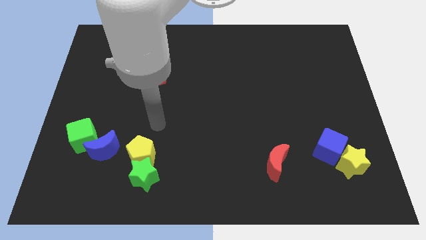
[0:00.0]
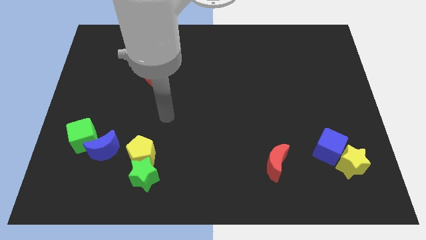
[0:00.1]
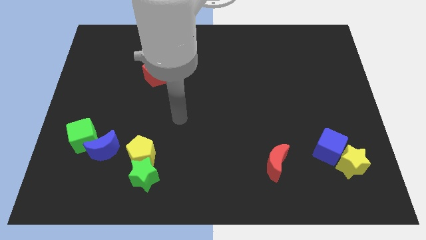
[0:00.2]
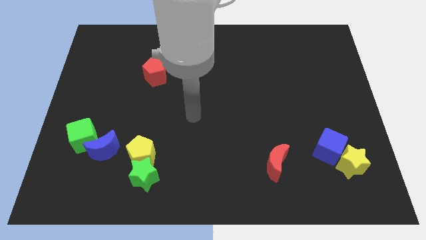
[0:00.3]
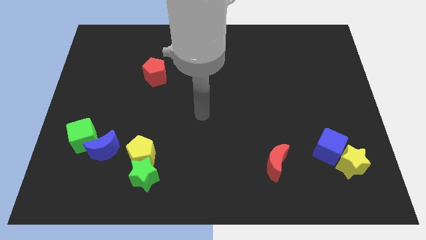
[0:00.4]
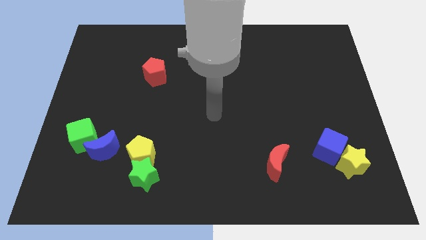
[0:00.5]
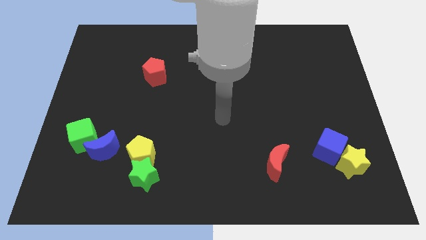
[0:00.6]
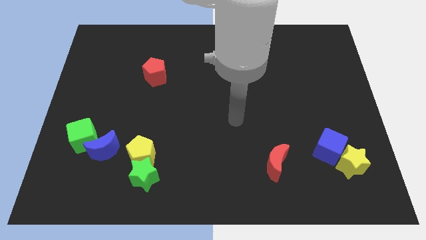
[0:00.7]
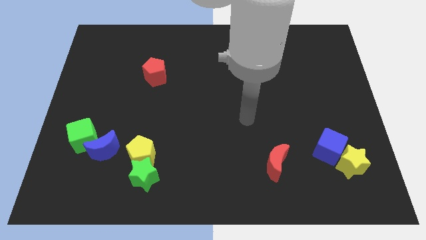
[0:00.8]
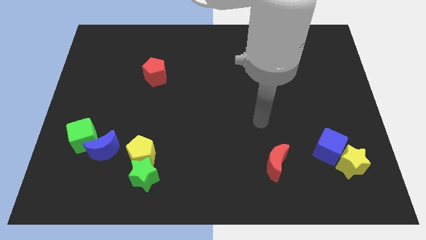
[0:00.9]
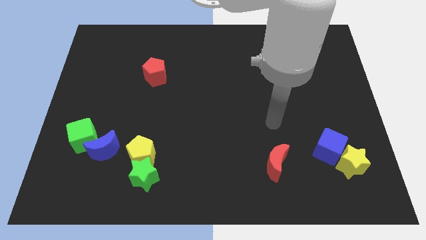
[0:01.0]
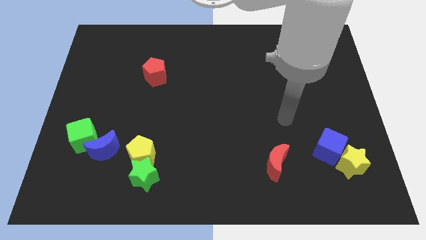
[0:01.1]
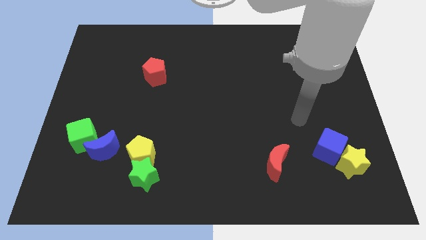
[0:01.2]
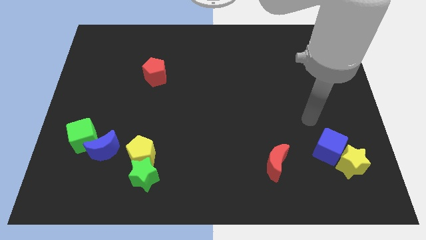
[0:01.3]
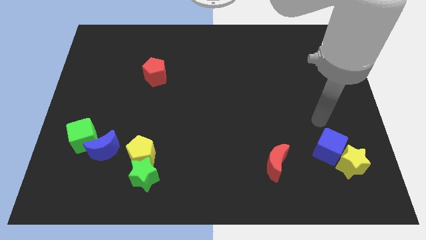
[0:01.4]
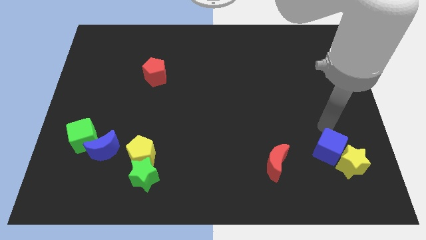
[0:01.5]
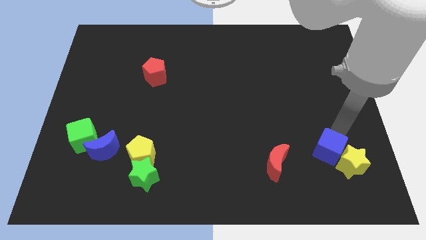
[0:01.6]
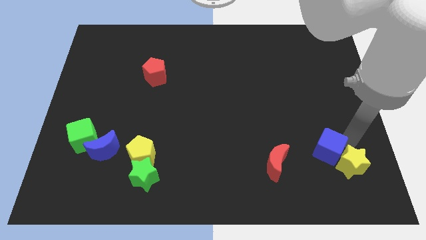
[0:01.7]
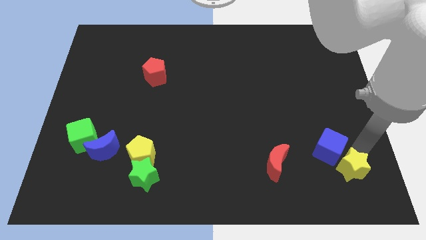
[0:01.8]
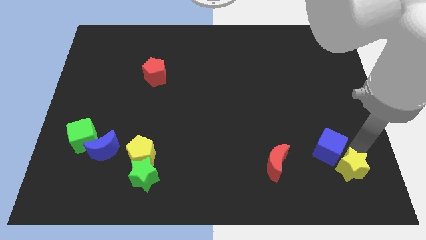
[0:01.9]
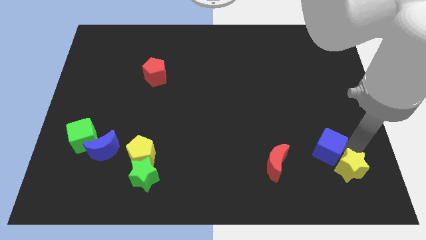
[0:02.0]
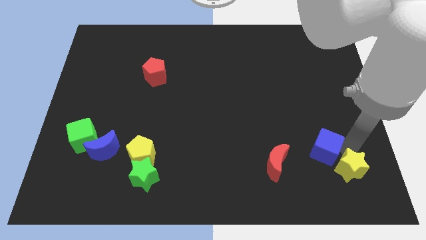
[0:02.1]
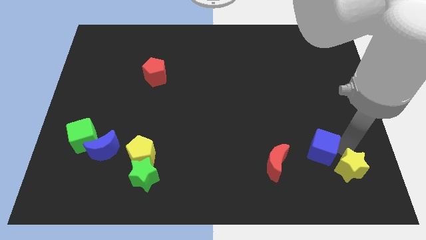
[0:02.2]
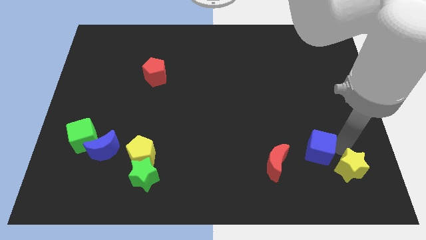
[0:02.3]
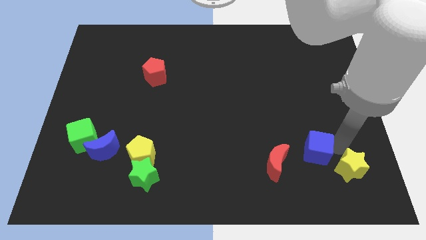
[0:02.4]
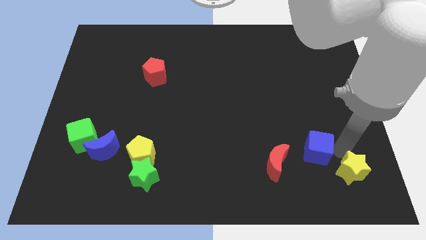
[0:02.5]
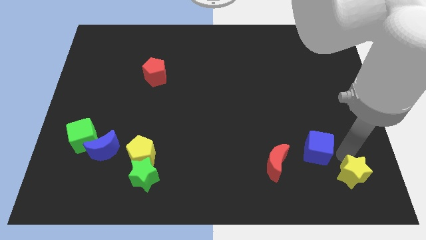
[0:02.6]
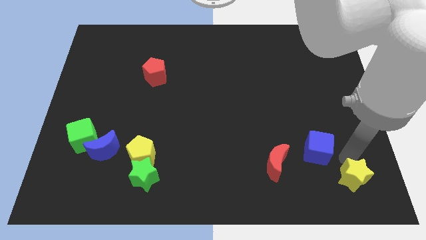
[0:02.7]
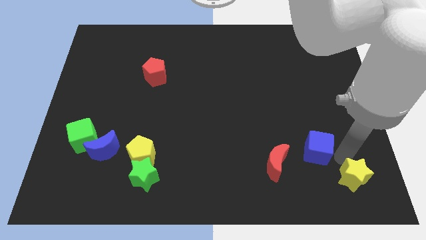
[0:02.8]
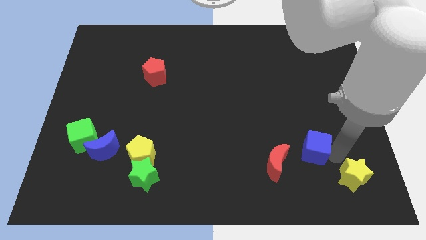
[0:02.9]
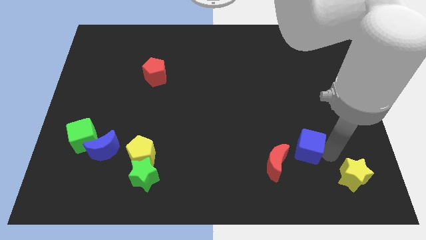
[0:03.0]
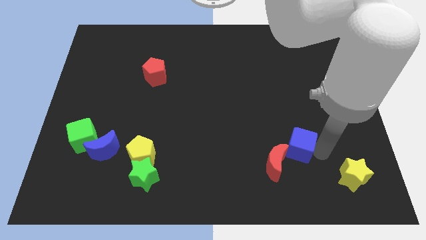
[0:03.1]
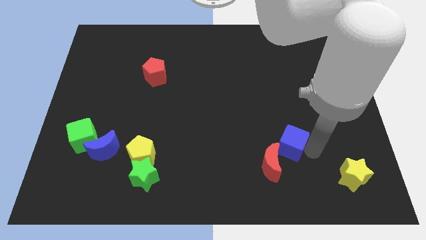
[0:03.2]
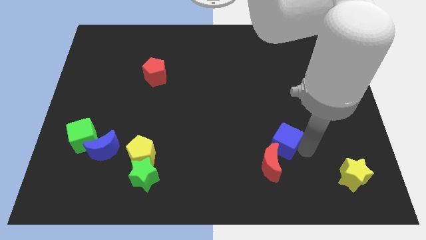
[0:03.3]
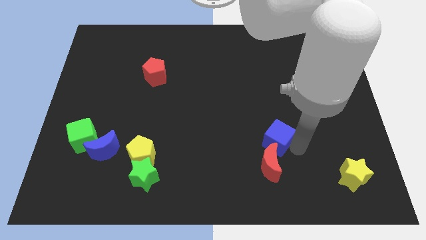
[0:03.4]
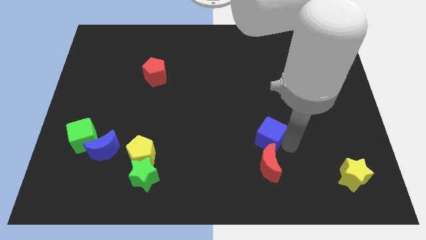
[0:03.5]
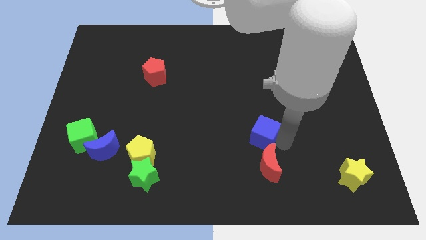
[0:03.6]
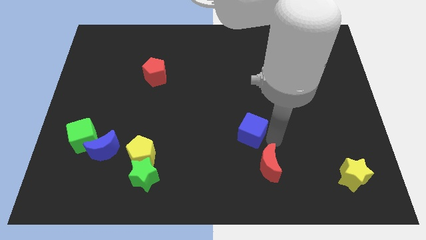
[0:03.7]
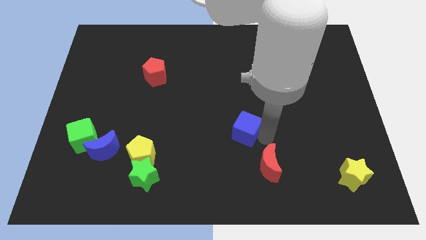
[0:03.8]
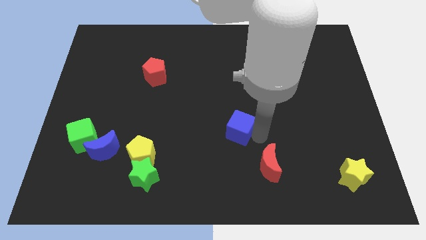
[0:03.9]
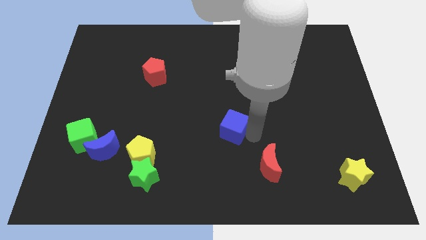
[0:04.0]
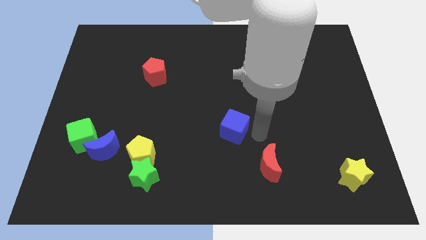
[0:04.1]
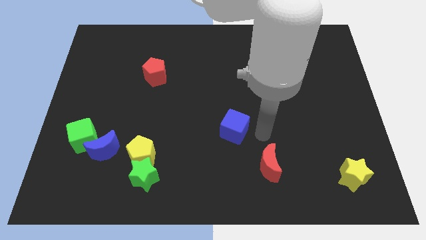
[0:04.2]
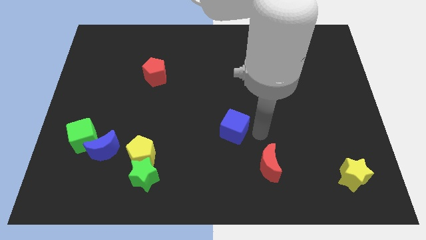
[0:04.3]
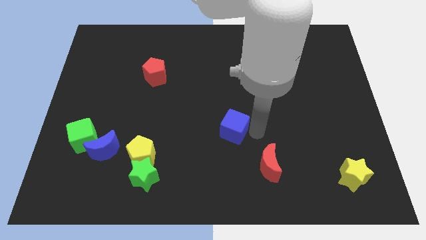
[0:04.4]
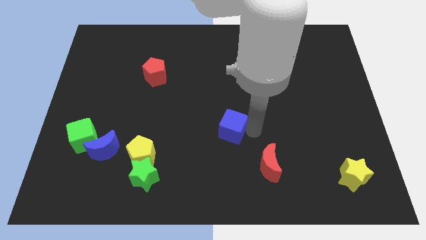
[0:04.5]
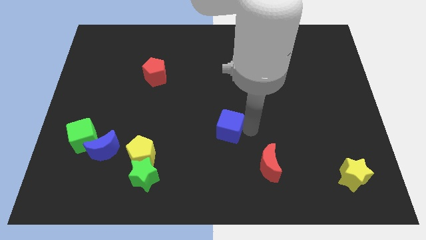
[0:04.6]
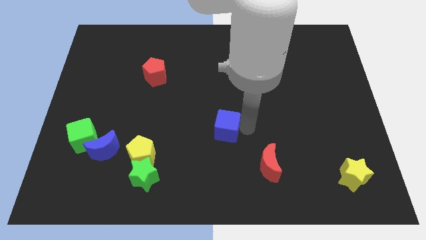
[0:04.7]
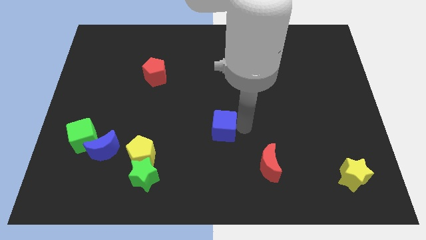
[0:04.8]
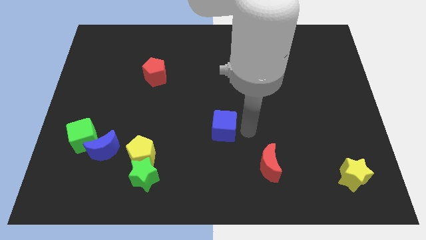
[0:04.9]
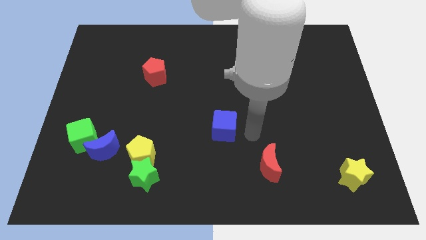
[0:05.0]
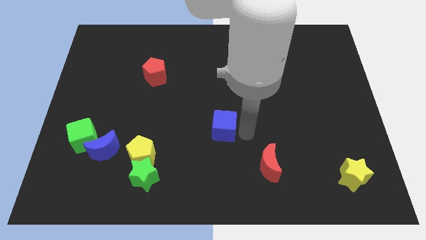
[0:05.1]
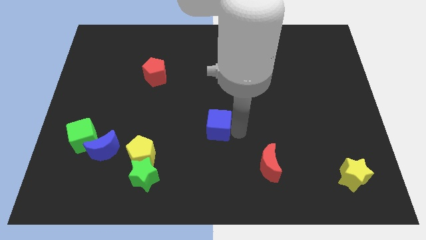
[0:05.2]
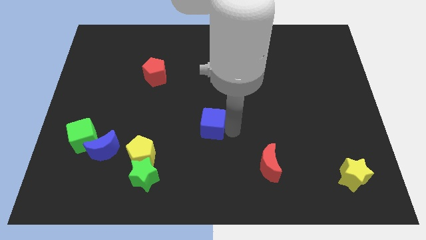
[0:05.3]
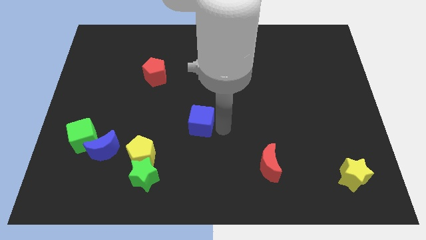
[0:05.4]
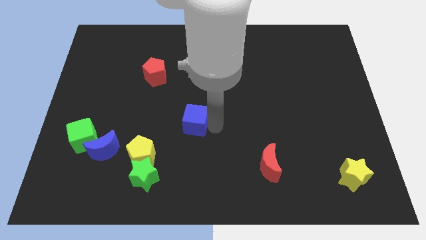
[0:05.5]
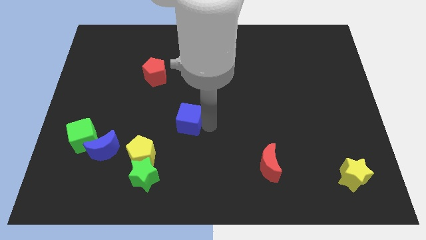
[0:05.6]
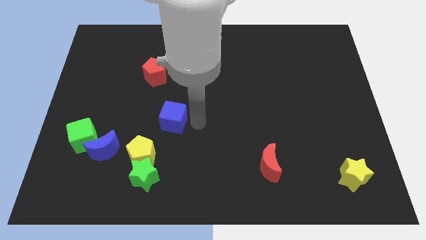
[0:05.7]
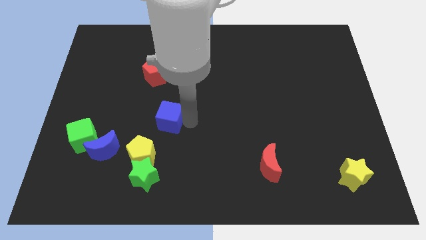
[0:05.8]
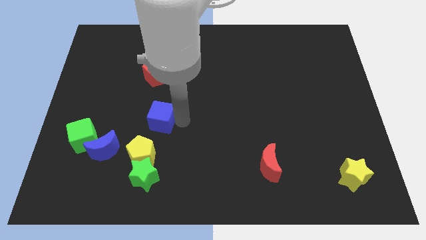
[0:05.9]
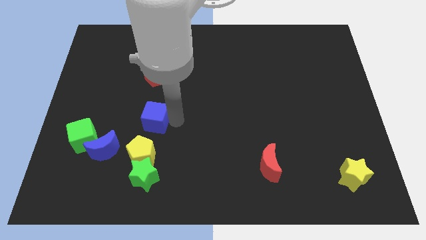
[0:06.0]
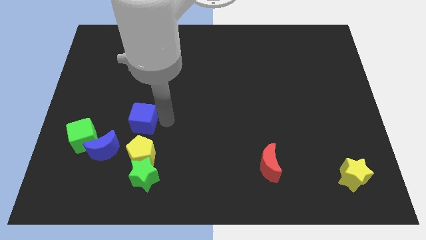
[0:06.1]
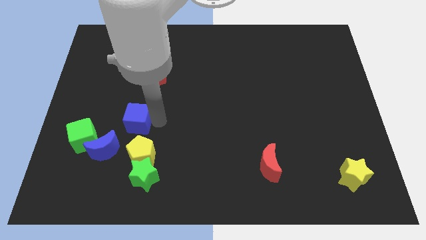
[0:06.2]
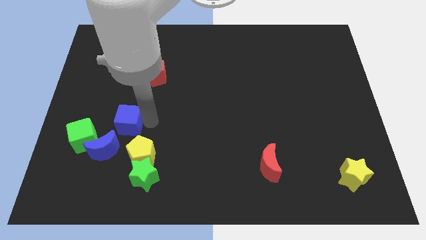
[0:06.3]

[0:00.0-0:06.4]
move the blue cube to the top right side of the green cube

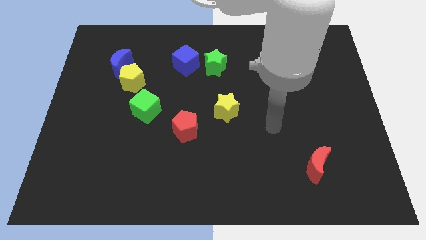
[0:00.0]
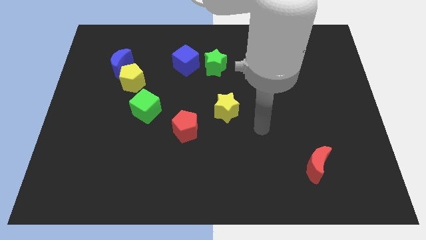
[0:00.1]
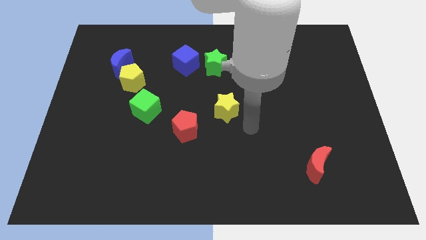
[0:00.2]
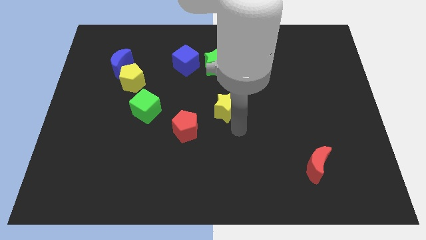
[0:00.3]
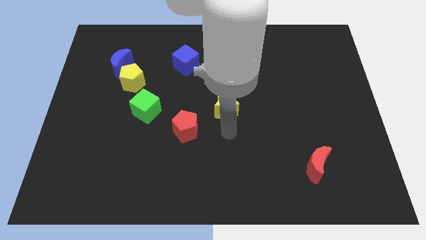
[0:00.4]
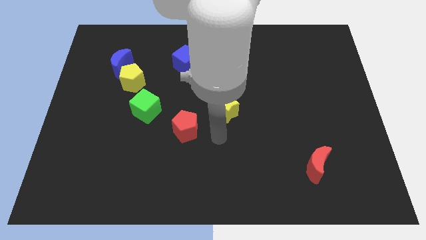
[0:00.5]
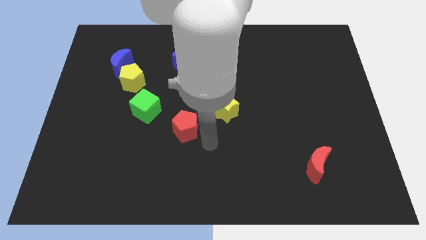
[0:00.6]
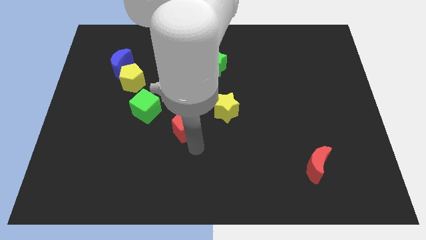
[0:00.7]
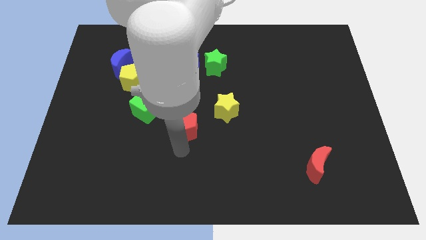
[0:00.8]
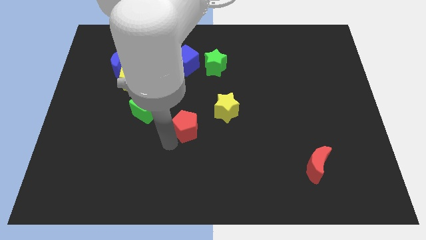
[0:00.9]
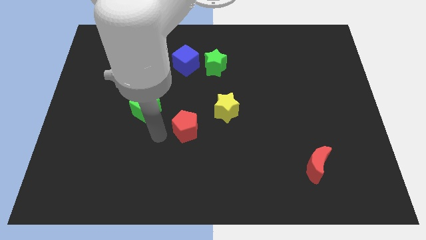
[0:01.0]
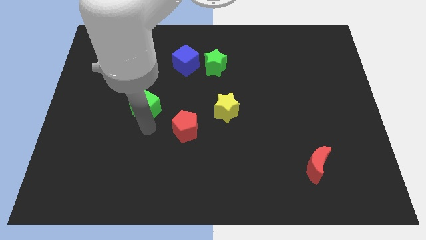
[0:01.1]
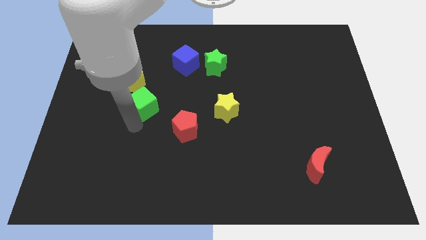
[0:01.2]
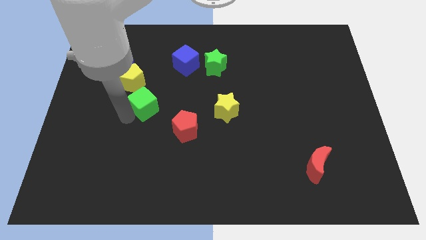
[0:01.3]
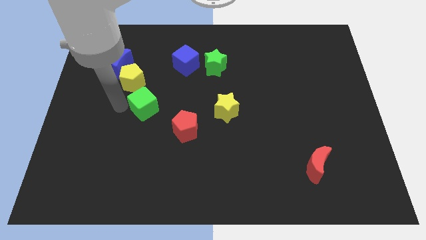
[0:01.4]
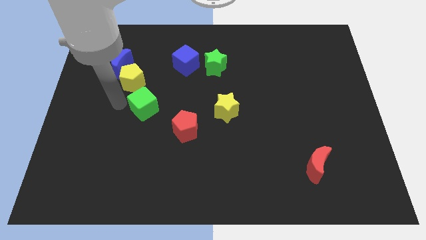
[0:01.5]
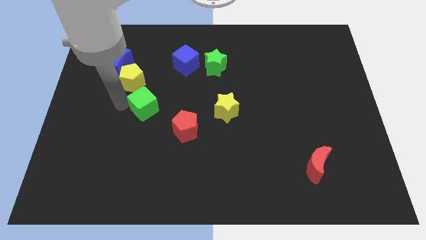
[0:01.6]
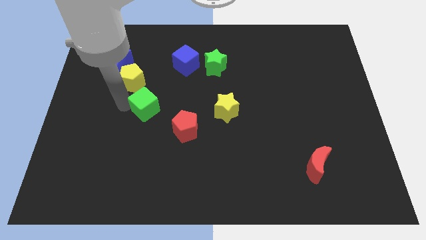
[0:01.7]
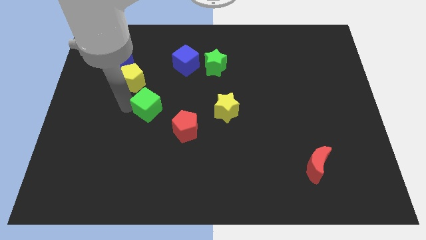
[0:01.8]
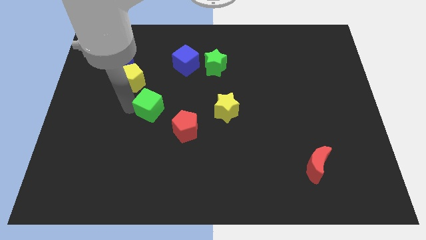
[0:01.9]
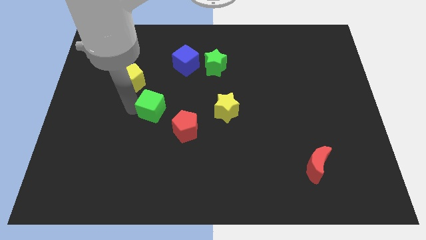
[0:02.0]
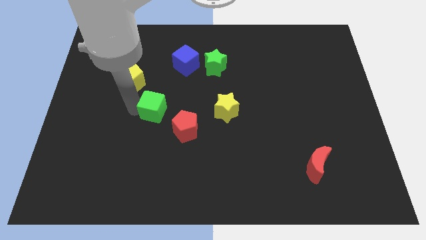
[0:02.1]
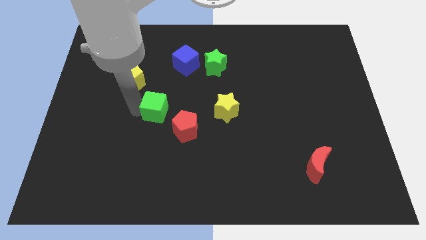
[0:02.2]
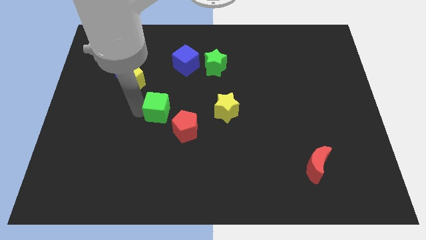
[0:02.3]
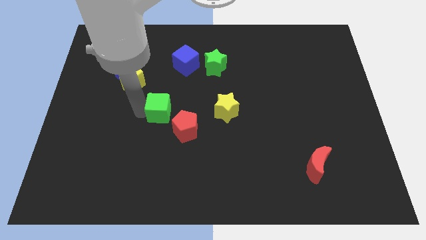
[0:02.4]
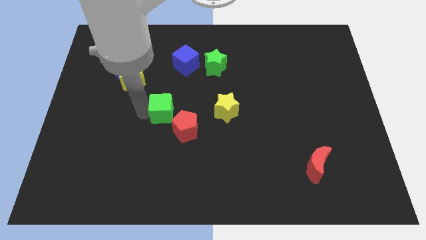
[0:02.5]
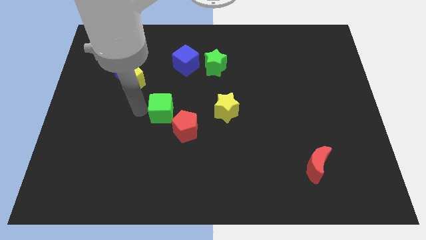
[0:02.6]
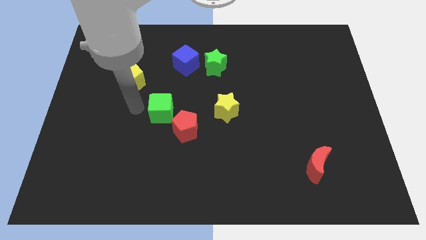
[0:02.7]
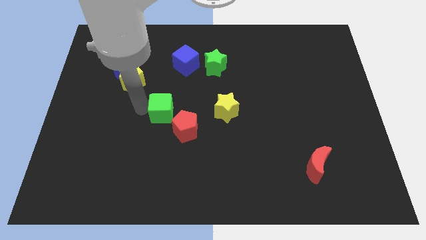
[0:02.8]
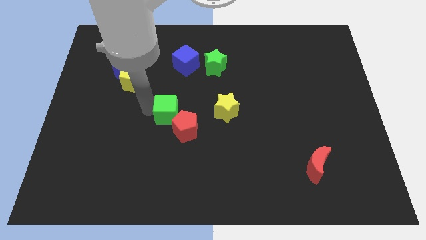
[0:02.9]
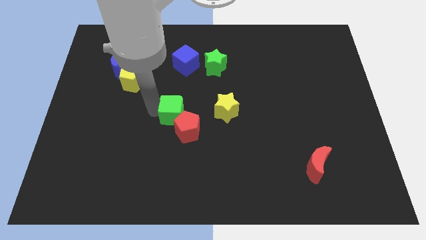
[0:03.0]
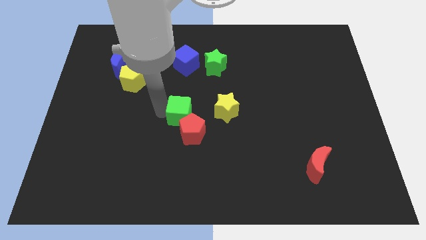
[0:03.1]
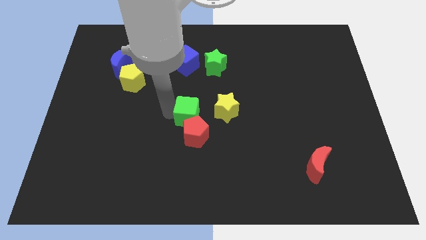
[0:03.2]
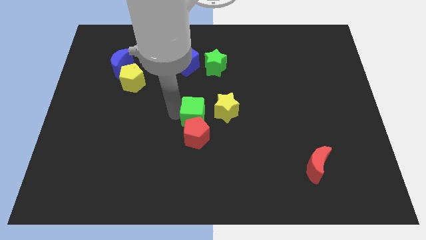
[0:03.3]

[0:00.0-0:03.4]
move the green cube diagonally down and to the left of the yellow star
